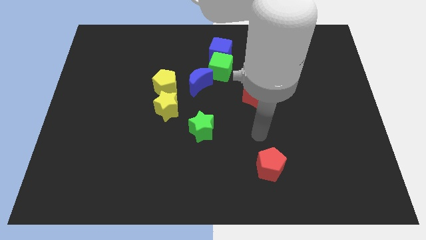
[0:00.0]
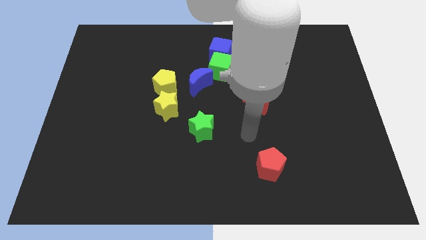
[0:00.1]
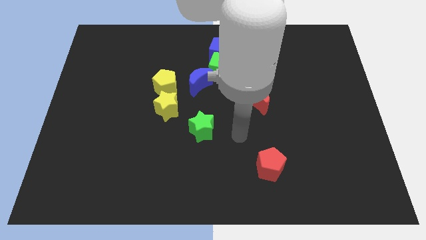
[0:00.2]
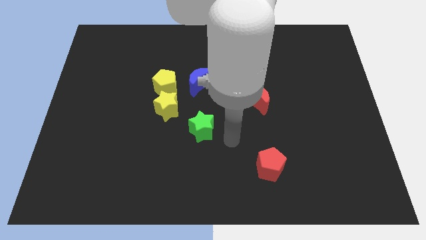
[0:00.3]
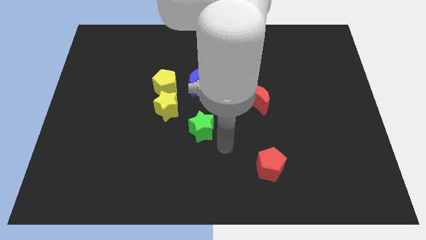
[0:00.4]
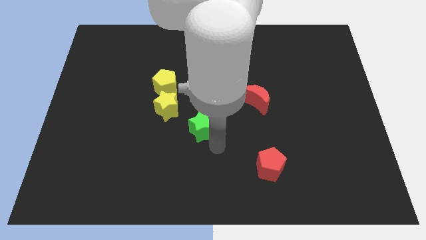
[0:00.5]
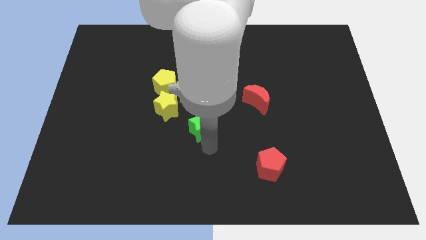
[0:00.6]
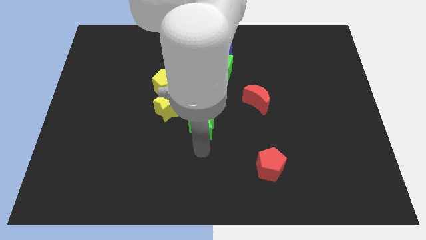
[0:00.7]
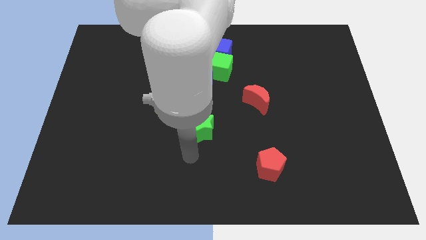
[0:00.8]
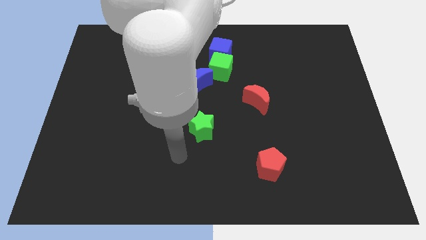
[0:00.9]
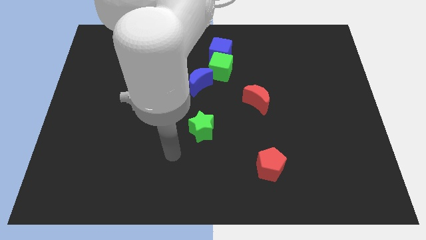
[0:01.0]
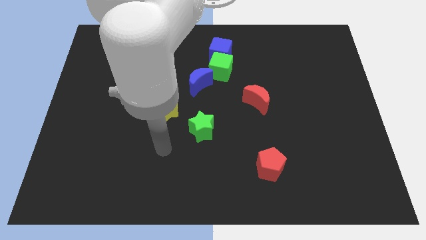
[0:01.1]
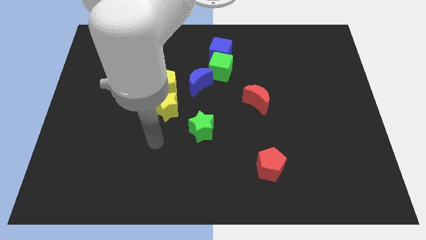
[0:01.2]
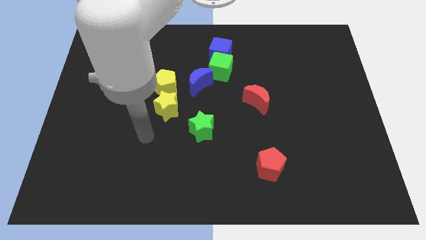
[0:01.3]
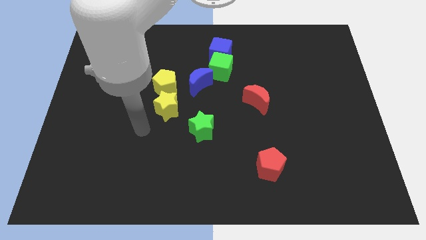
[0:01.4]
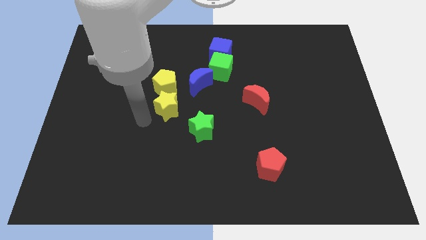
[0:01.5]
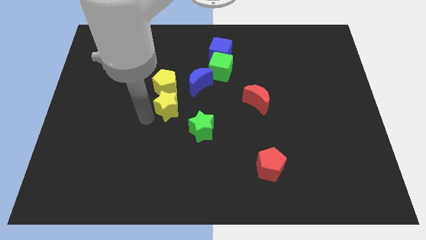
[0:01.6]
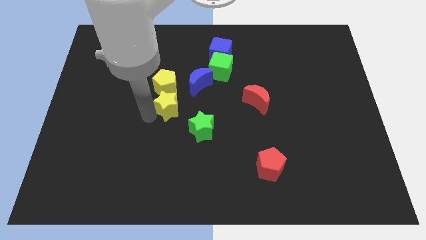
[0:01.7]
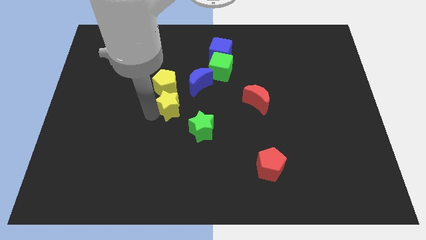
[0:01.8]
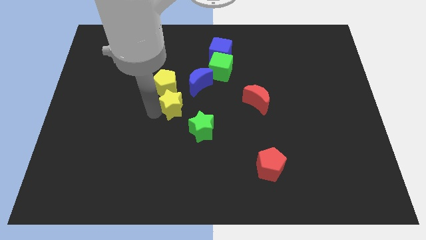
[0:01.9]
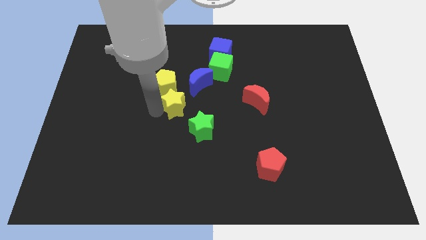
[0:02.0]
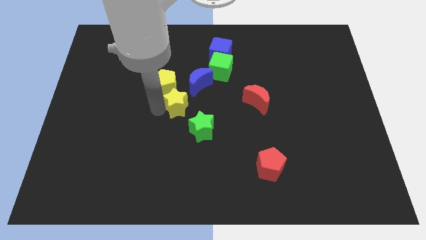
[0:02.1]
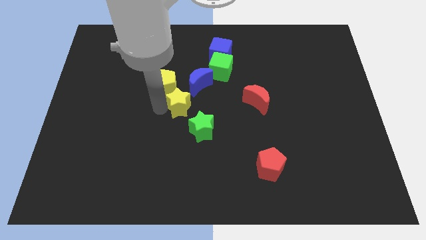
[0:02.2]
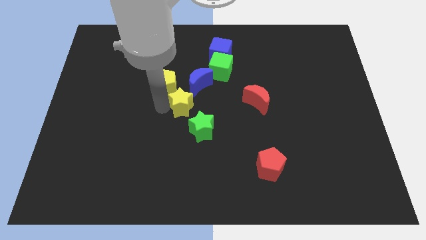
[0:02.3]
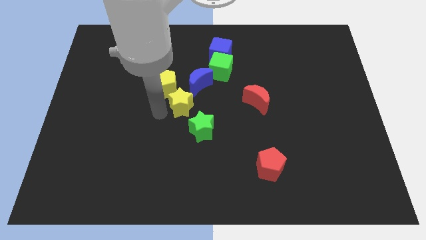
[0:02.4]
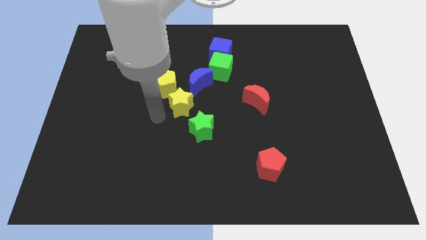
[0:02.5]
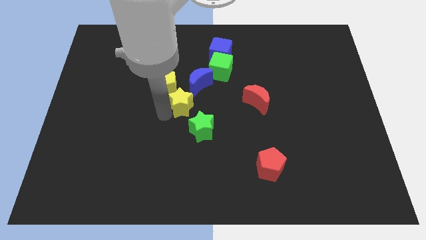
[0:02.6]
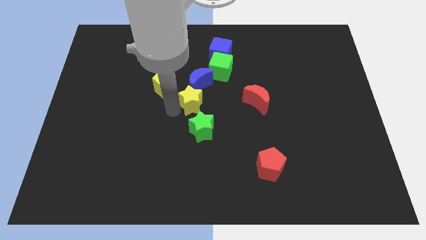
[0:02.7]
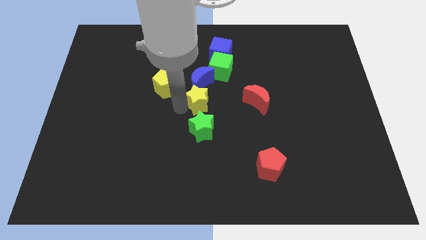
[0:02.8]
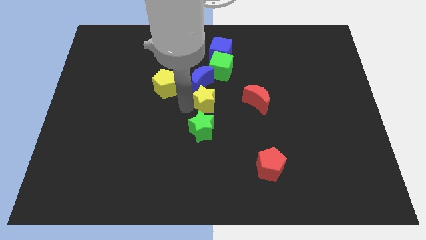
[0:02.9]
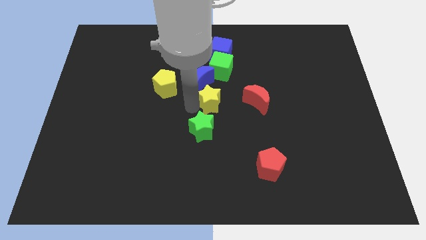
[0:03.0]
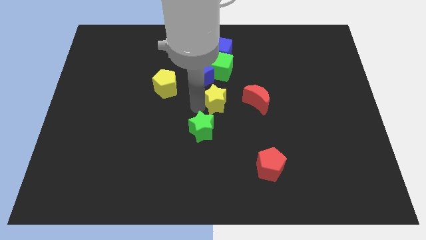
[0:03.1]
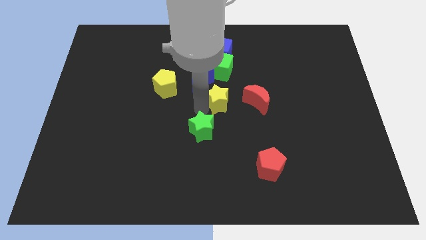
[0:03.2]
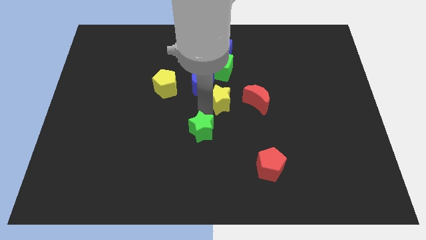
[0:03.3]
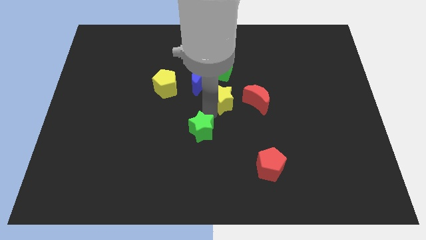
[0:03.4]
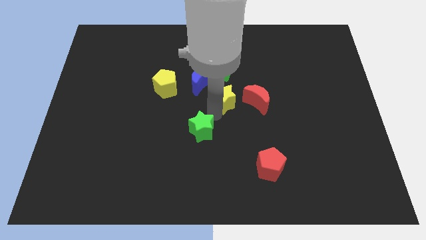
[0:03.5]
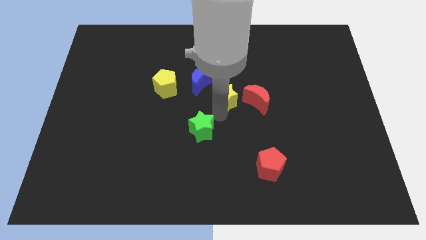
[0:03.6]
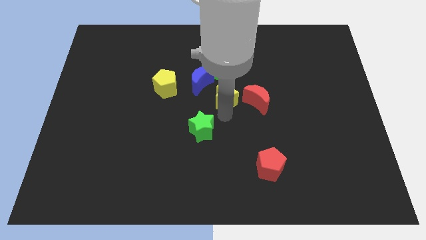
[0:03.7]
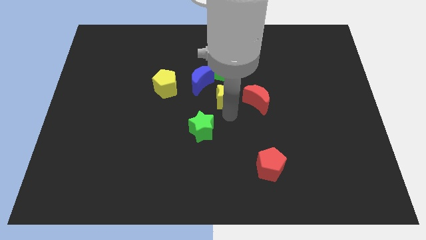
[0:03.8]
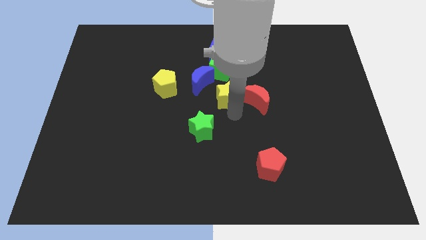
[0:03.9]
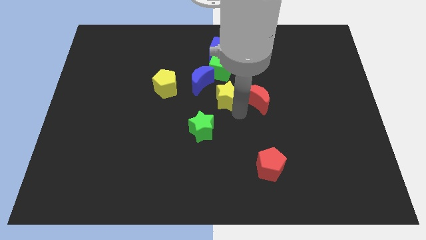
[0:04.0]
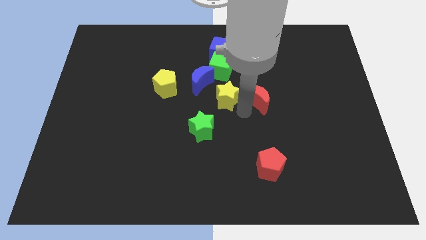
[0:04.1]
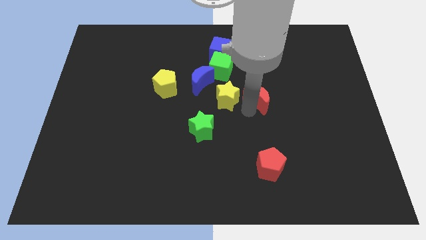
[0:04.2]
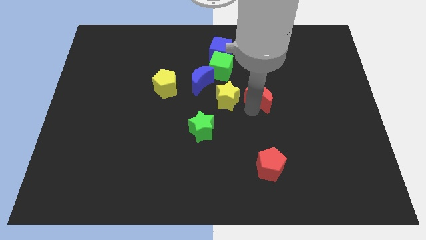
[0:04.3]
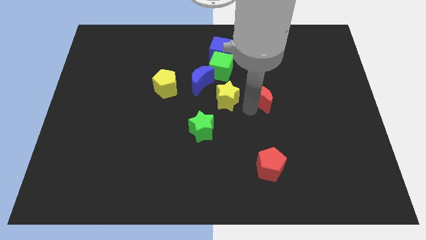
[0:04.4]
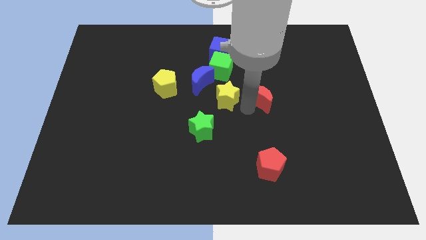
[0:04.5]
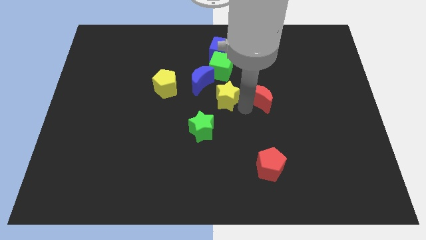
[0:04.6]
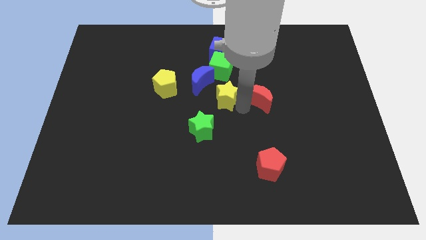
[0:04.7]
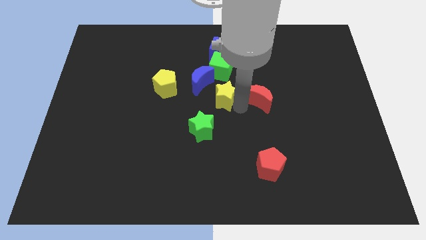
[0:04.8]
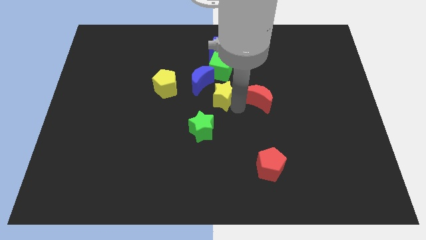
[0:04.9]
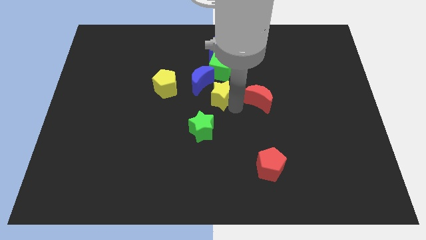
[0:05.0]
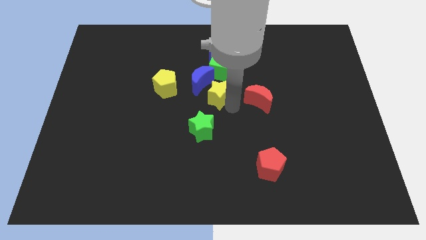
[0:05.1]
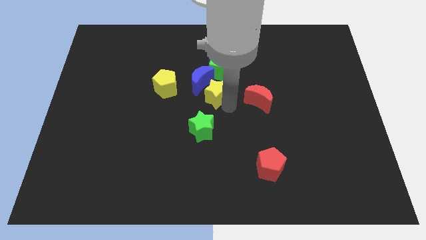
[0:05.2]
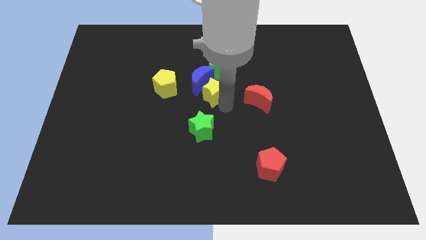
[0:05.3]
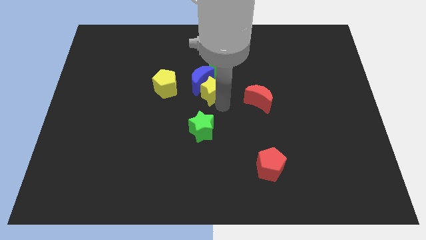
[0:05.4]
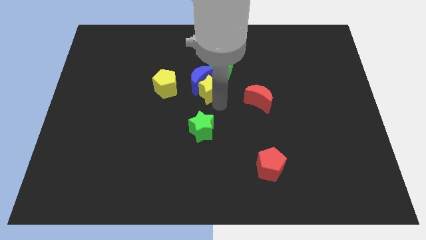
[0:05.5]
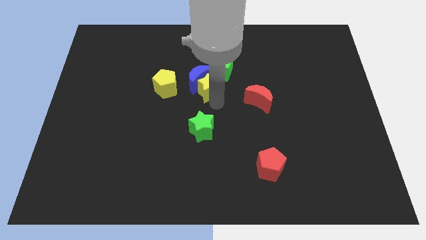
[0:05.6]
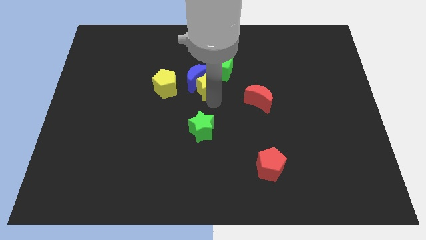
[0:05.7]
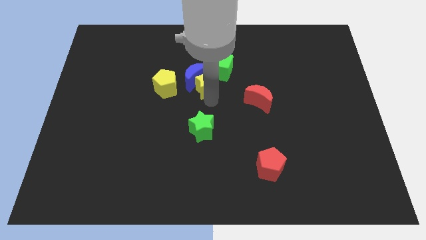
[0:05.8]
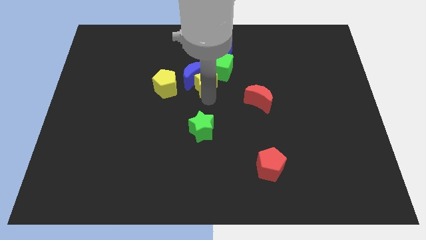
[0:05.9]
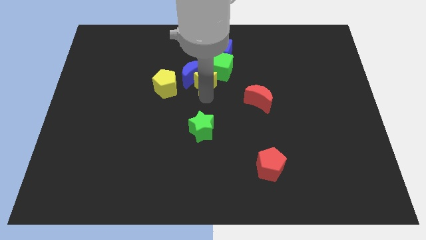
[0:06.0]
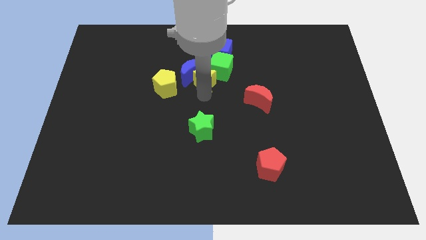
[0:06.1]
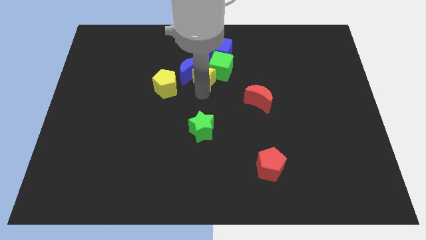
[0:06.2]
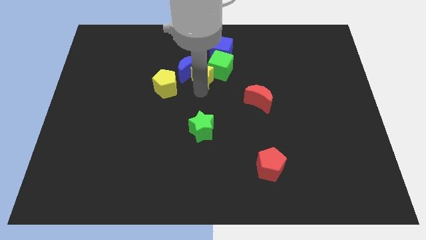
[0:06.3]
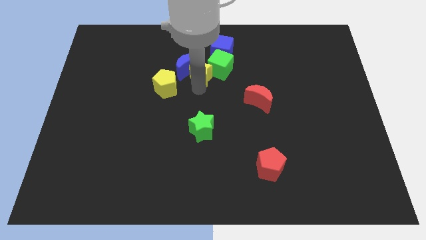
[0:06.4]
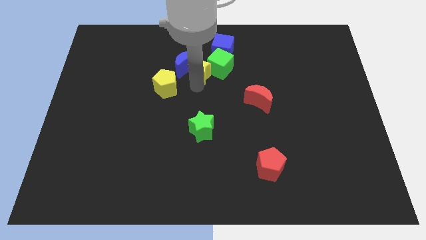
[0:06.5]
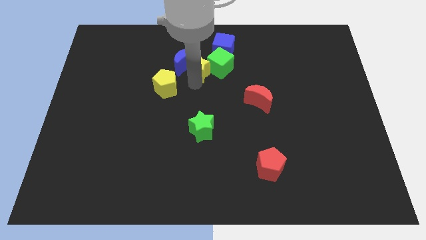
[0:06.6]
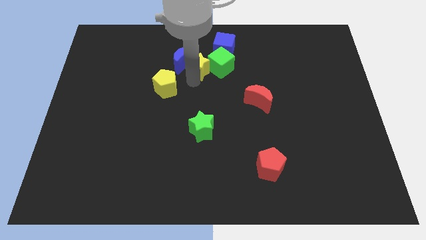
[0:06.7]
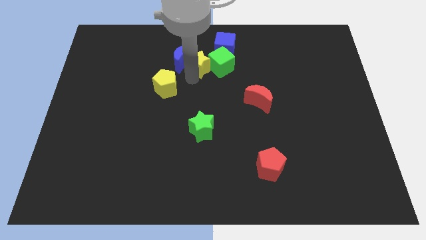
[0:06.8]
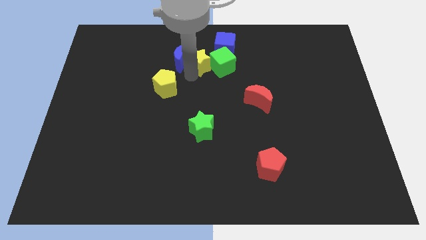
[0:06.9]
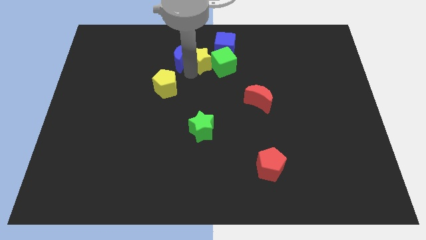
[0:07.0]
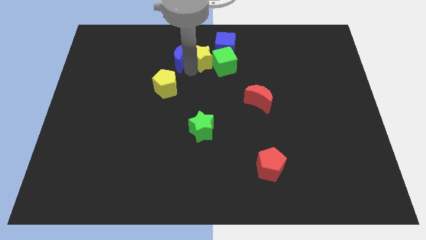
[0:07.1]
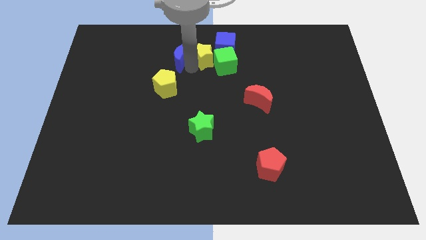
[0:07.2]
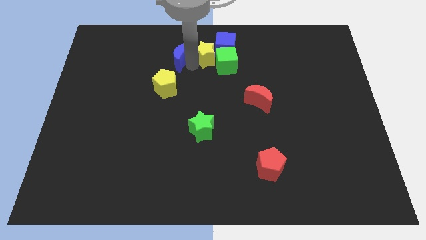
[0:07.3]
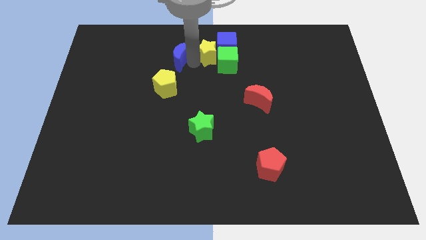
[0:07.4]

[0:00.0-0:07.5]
slide the yellow star to the blue cube

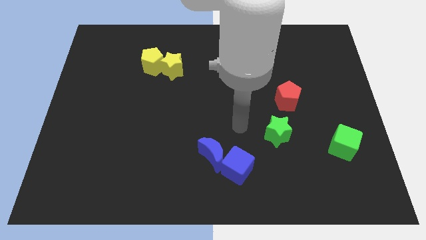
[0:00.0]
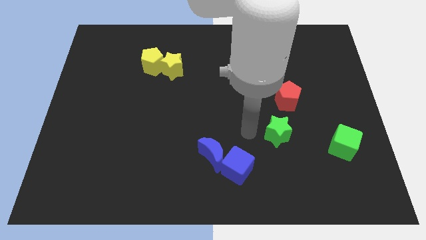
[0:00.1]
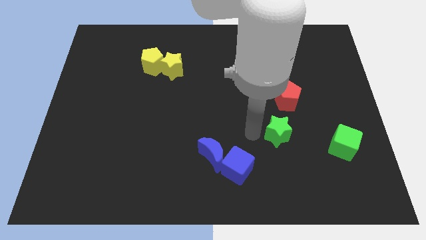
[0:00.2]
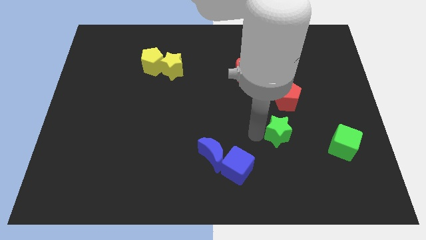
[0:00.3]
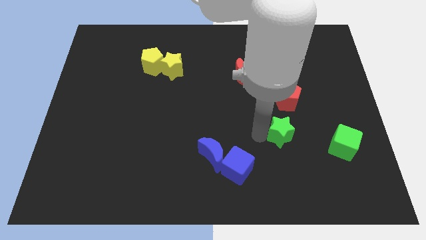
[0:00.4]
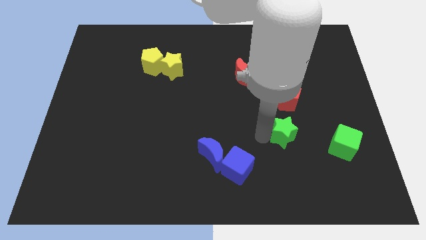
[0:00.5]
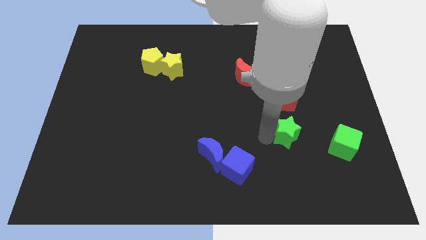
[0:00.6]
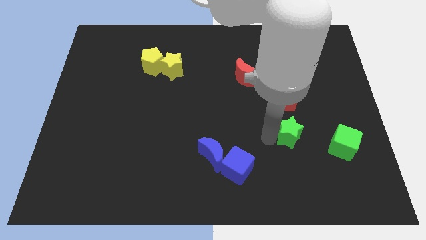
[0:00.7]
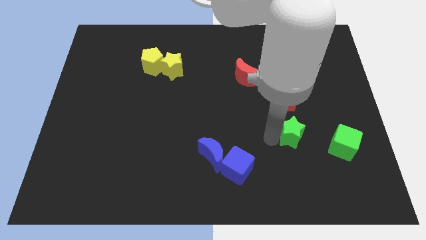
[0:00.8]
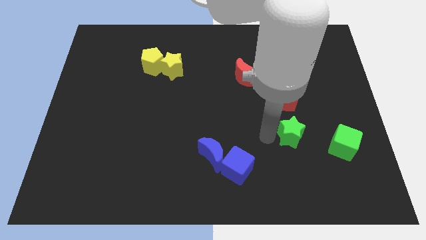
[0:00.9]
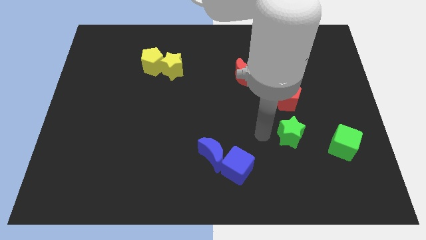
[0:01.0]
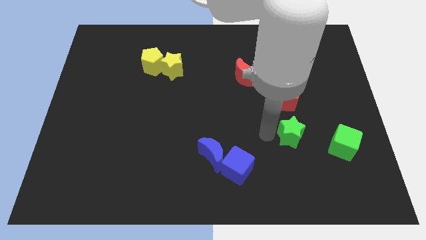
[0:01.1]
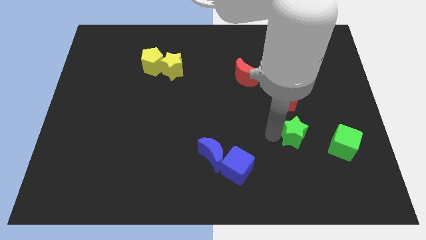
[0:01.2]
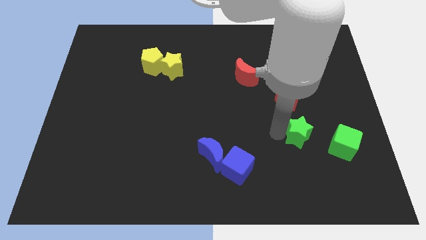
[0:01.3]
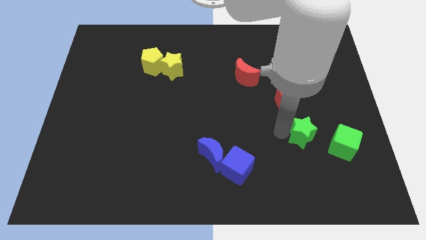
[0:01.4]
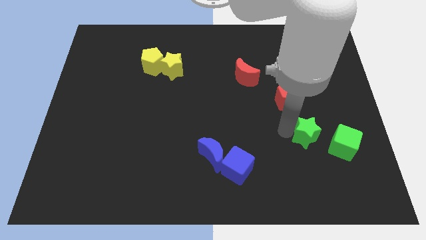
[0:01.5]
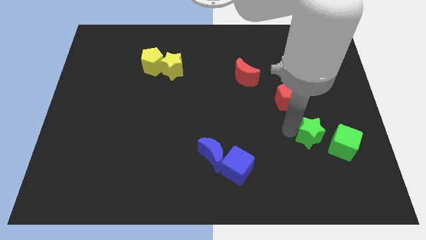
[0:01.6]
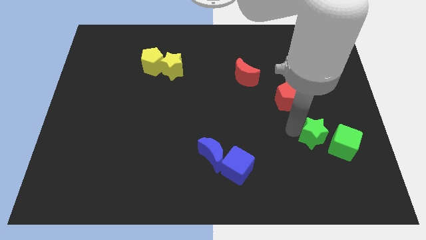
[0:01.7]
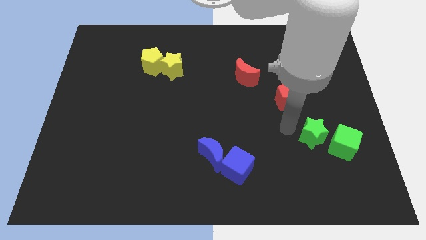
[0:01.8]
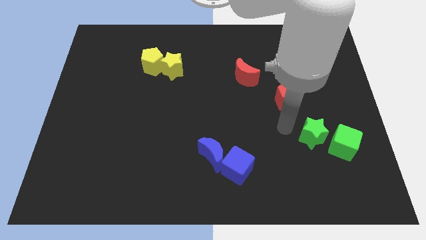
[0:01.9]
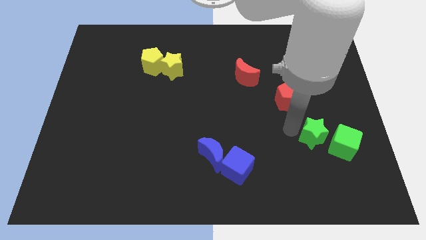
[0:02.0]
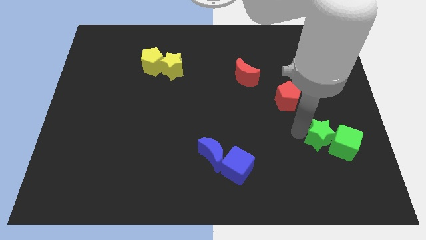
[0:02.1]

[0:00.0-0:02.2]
move the green star close to the green cube
